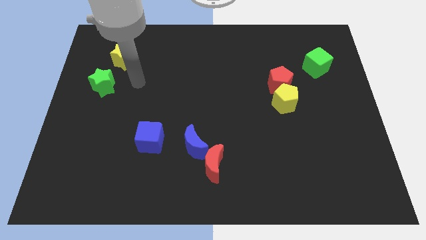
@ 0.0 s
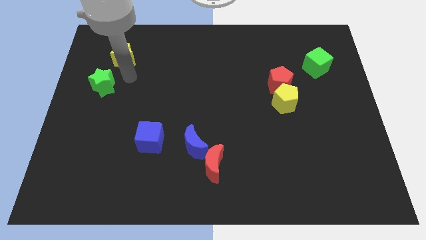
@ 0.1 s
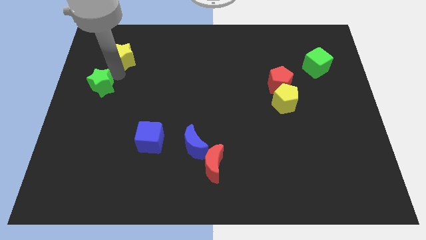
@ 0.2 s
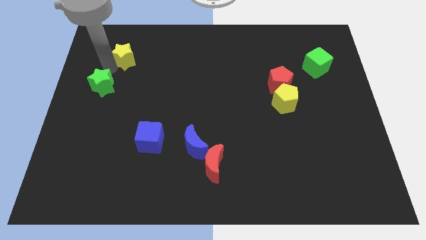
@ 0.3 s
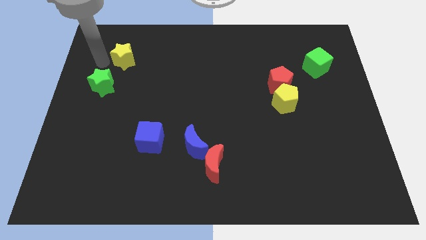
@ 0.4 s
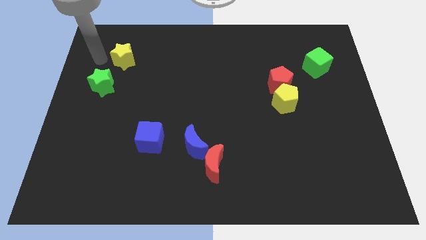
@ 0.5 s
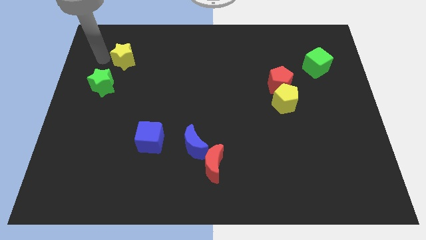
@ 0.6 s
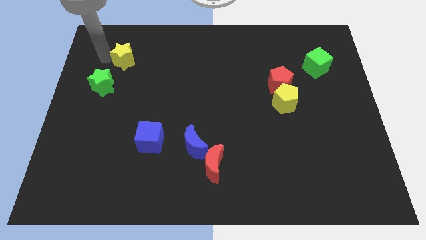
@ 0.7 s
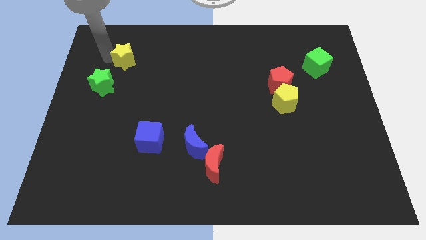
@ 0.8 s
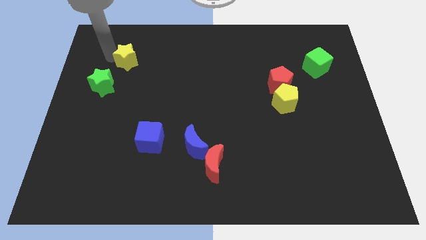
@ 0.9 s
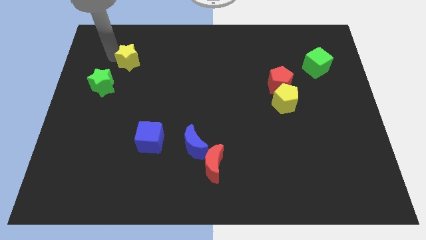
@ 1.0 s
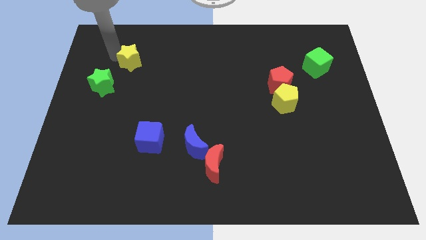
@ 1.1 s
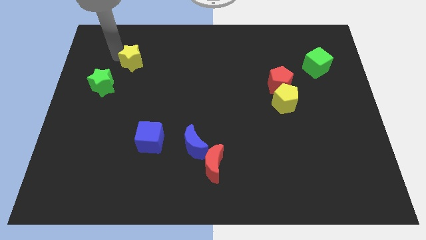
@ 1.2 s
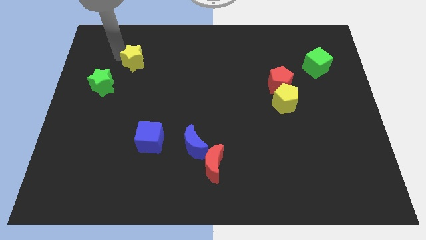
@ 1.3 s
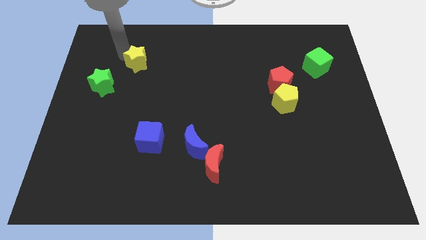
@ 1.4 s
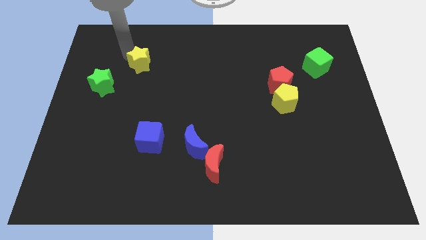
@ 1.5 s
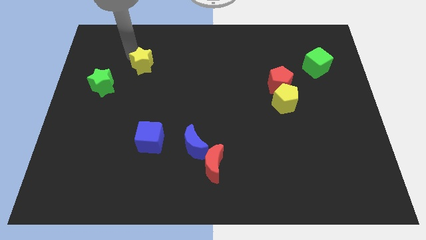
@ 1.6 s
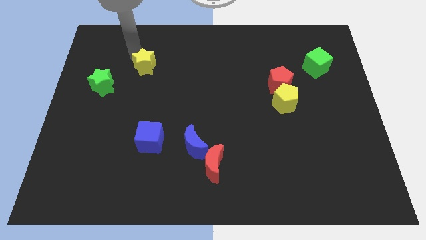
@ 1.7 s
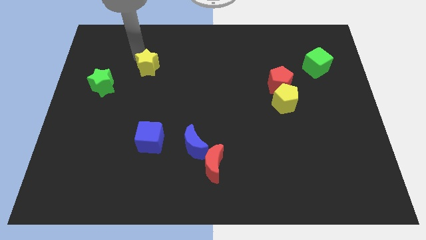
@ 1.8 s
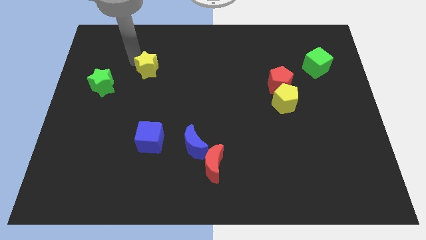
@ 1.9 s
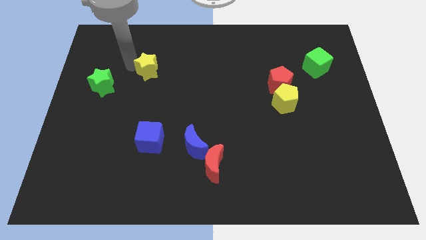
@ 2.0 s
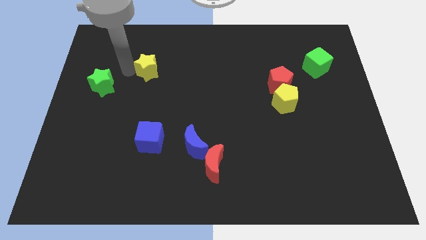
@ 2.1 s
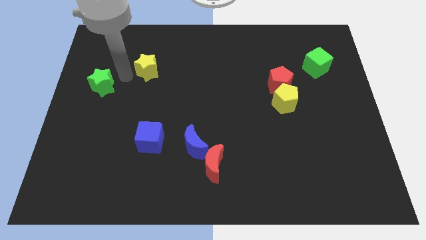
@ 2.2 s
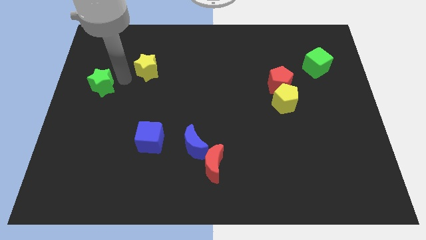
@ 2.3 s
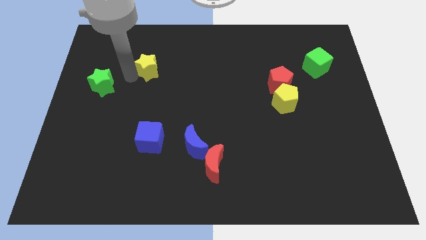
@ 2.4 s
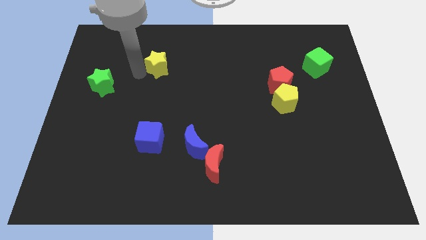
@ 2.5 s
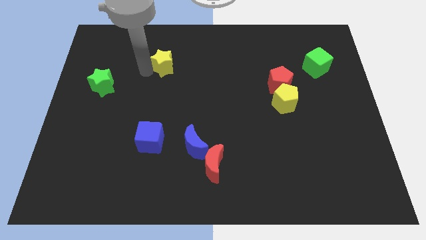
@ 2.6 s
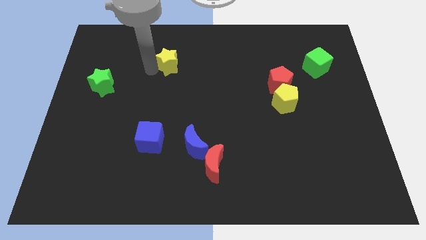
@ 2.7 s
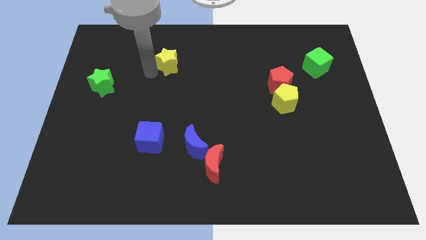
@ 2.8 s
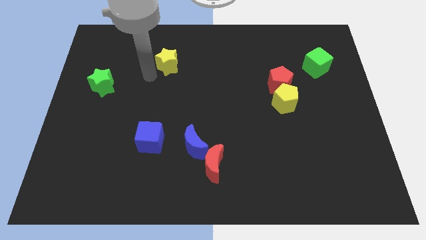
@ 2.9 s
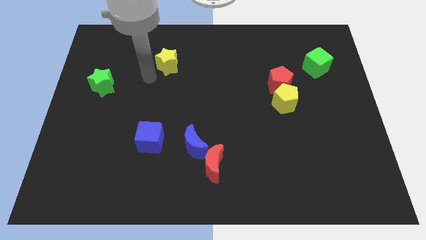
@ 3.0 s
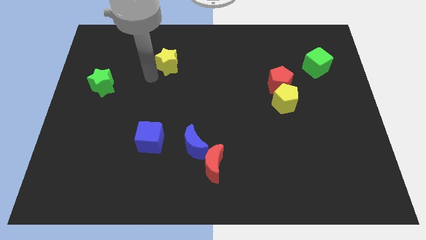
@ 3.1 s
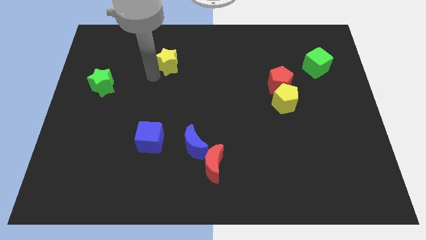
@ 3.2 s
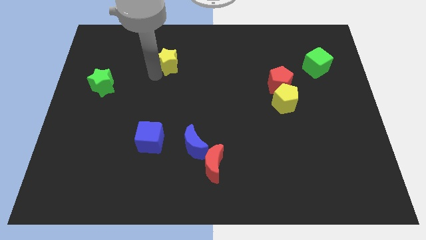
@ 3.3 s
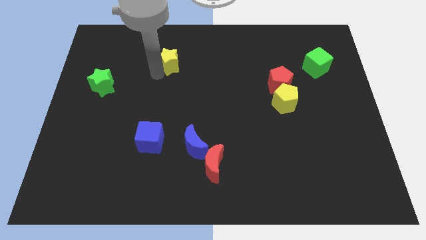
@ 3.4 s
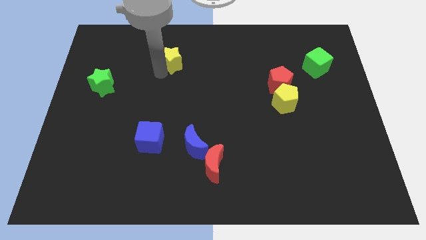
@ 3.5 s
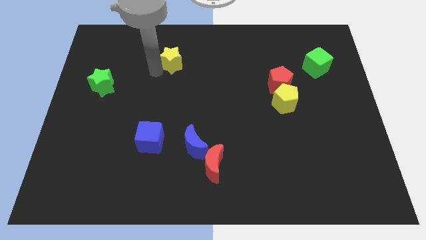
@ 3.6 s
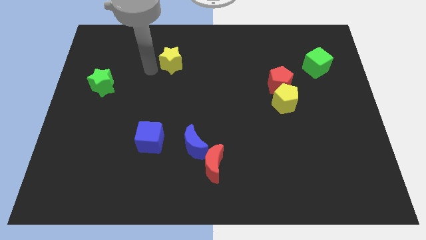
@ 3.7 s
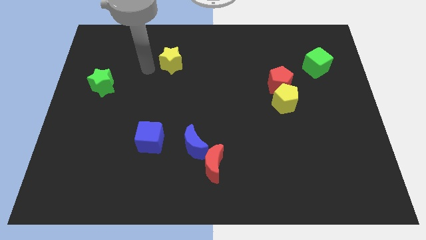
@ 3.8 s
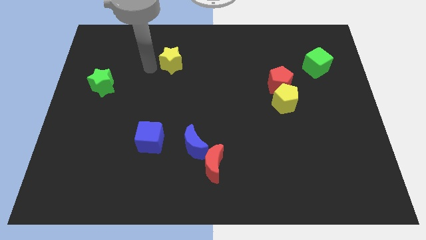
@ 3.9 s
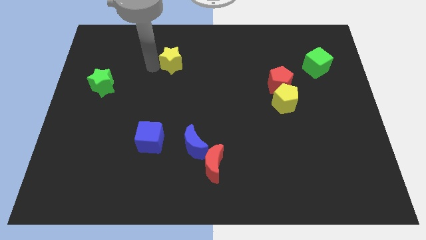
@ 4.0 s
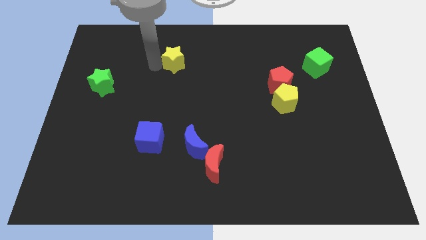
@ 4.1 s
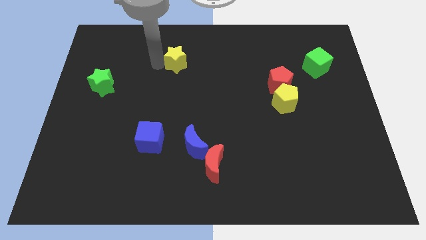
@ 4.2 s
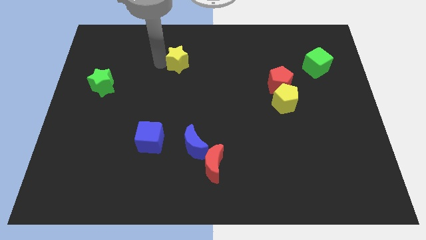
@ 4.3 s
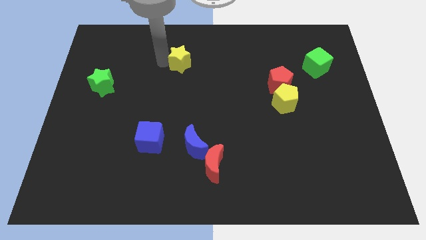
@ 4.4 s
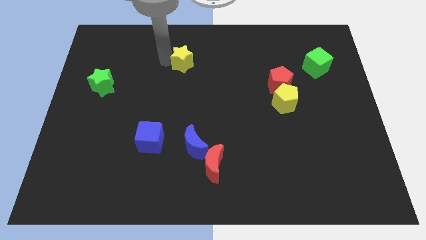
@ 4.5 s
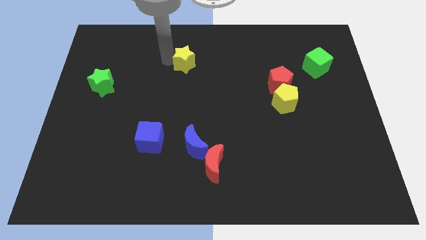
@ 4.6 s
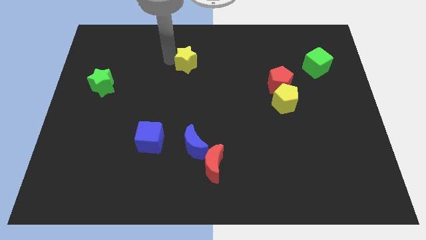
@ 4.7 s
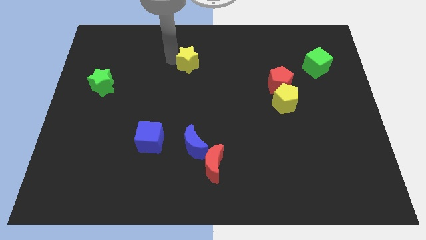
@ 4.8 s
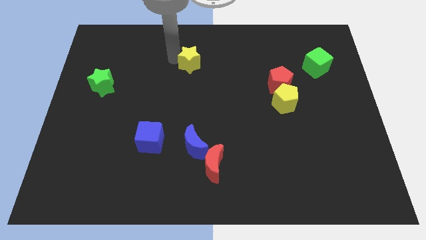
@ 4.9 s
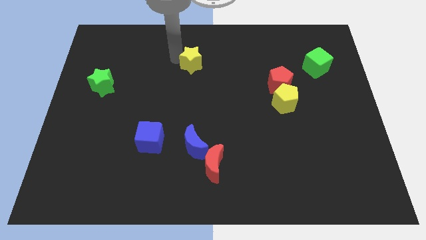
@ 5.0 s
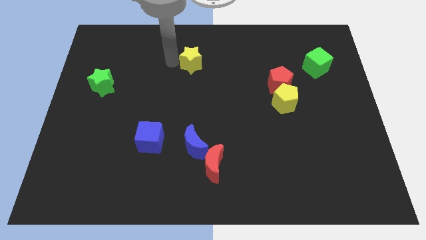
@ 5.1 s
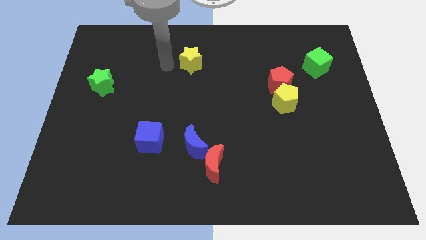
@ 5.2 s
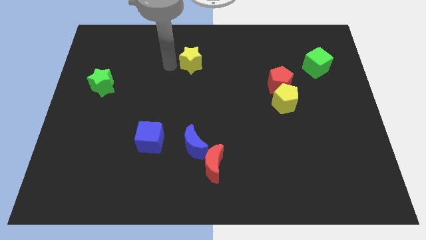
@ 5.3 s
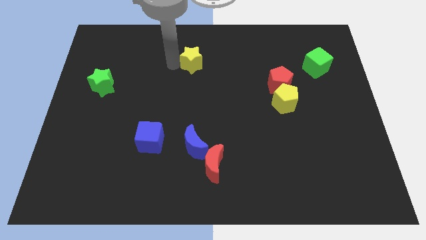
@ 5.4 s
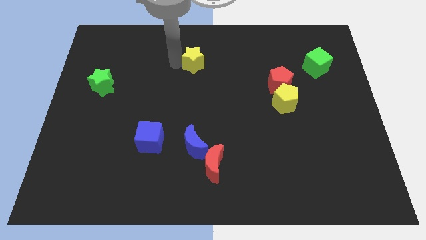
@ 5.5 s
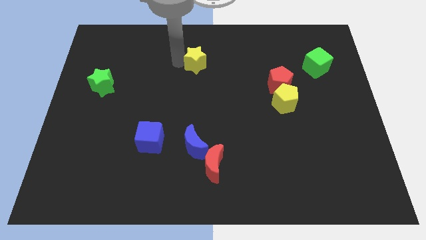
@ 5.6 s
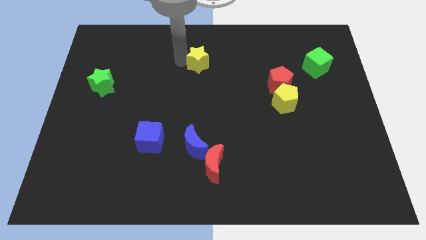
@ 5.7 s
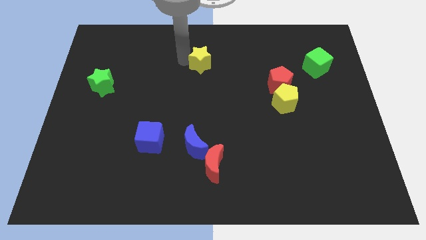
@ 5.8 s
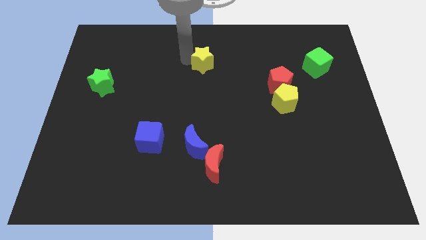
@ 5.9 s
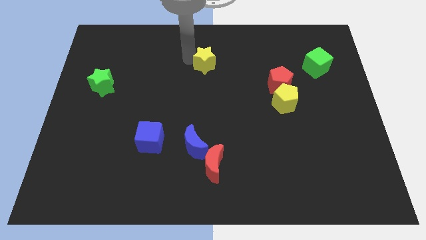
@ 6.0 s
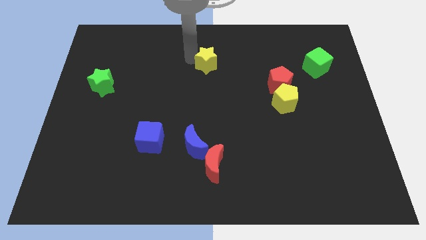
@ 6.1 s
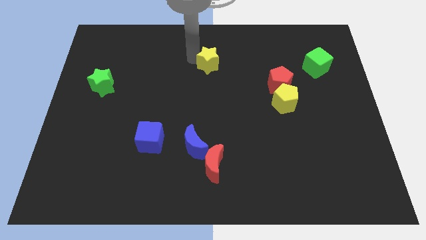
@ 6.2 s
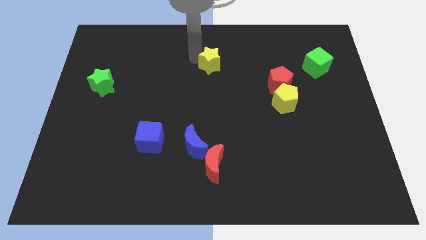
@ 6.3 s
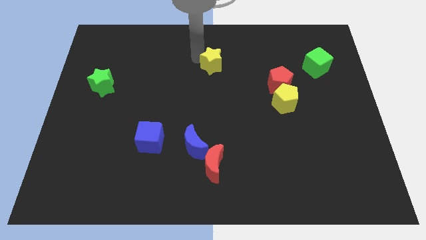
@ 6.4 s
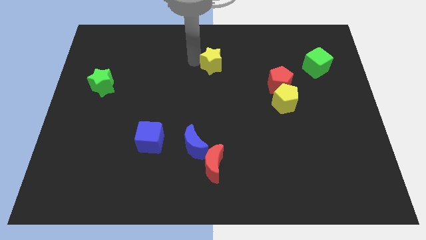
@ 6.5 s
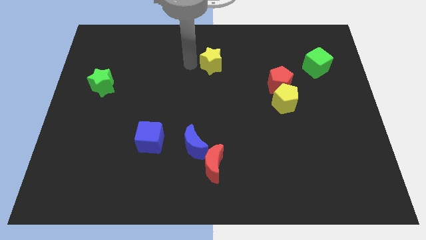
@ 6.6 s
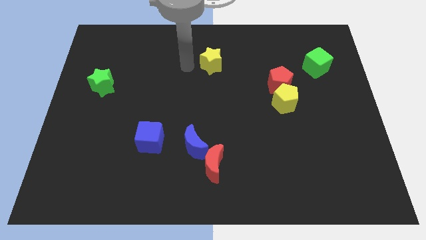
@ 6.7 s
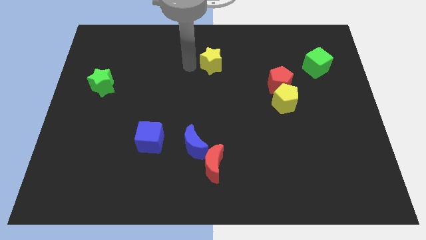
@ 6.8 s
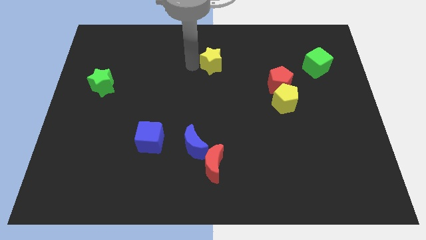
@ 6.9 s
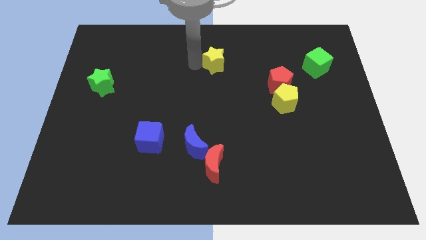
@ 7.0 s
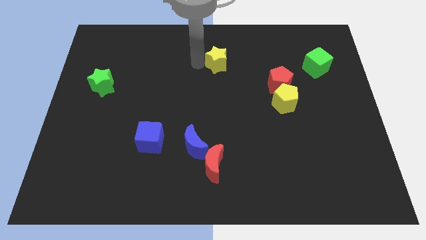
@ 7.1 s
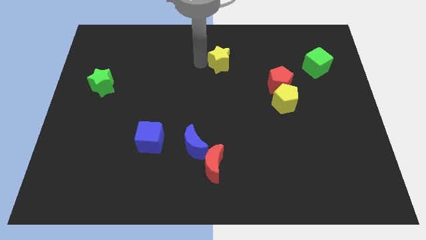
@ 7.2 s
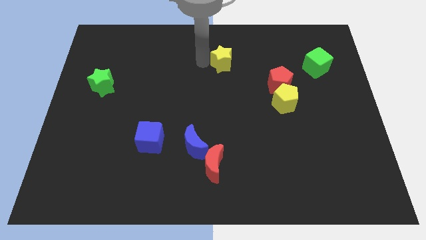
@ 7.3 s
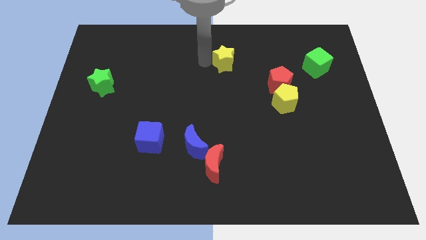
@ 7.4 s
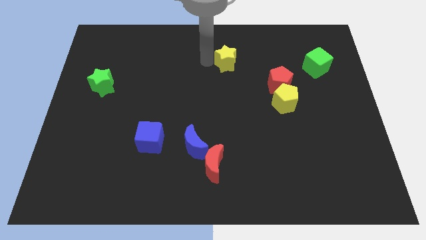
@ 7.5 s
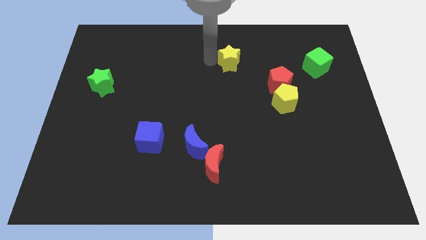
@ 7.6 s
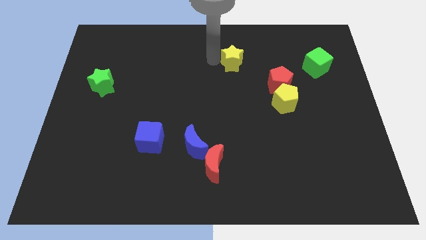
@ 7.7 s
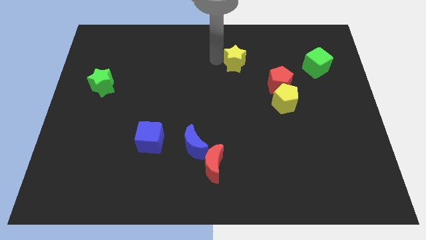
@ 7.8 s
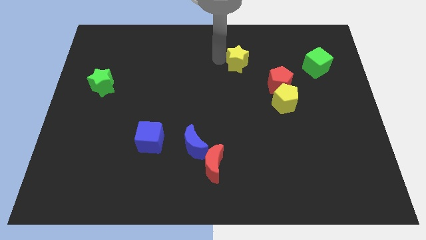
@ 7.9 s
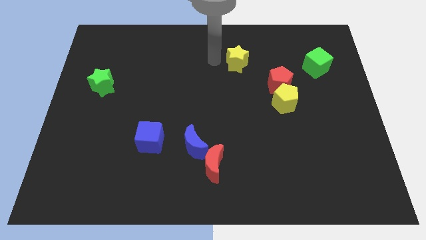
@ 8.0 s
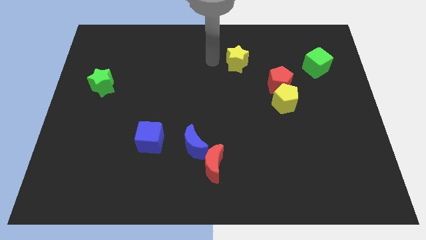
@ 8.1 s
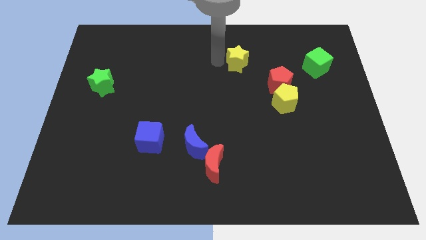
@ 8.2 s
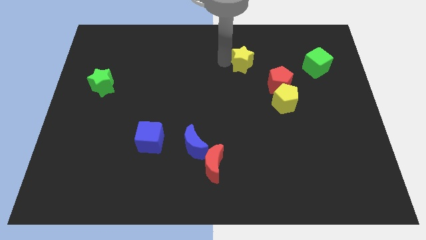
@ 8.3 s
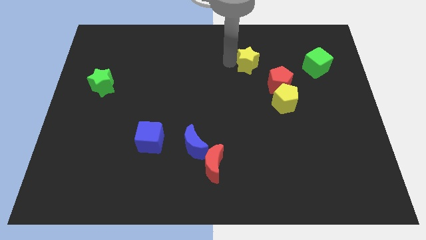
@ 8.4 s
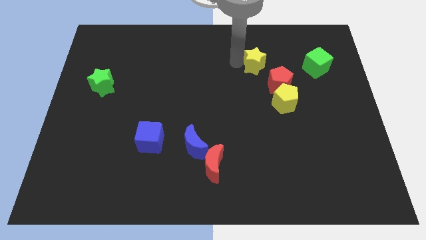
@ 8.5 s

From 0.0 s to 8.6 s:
move the yellow star to the left of the green cube

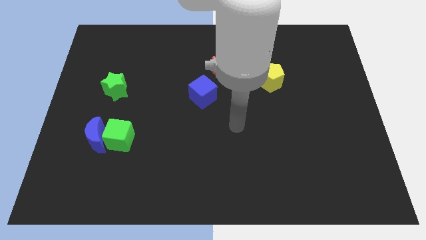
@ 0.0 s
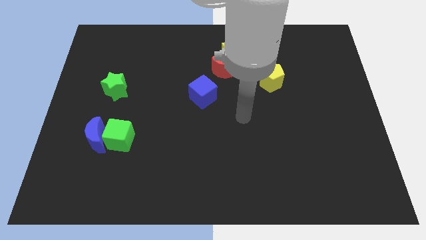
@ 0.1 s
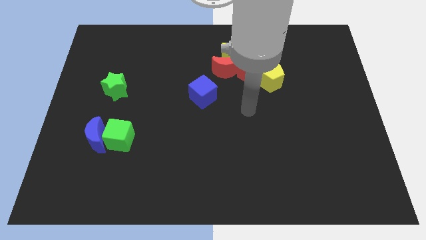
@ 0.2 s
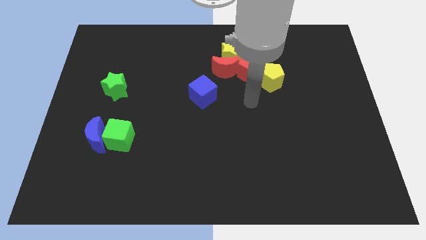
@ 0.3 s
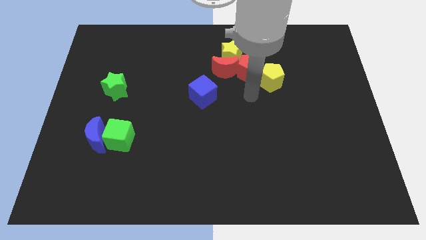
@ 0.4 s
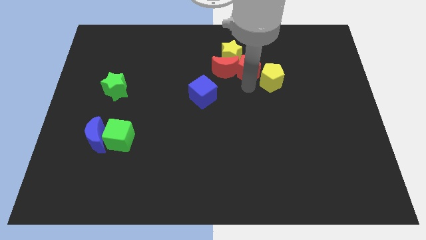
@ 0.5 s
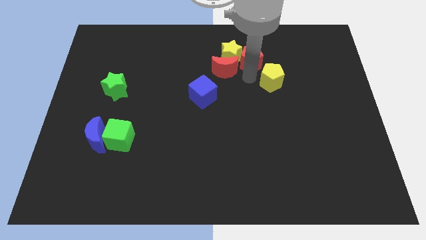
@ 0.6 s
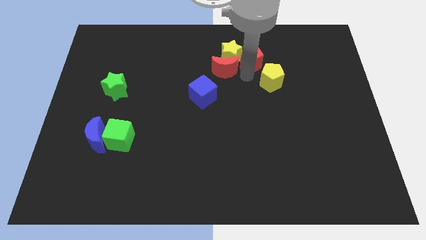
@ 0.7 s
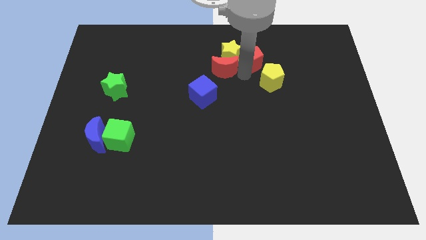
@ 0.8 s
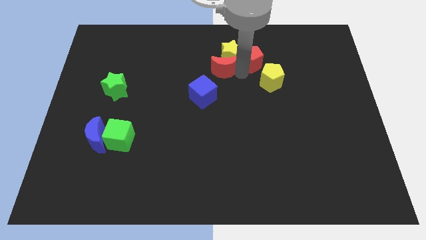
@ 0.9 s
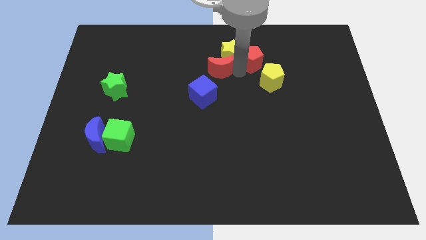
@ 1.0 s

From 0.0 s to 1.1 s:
push the red moon to the top of the blue cube
